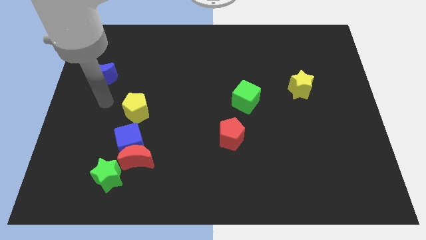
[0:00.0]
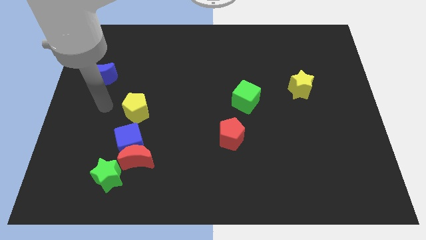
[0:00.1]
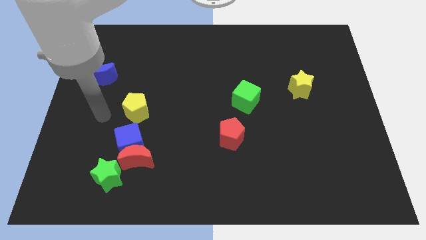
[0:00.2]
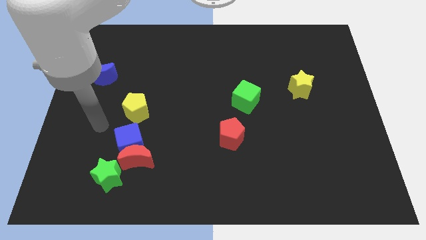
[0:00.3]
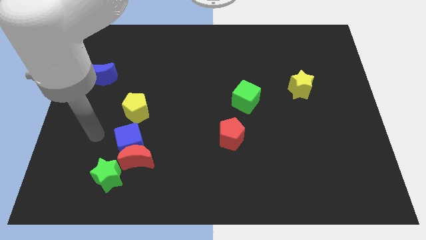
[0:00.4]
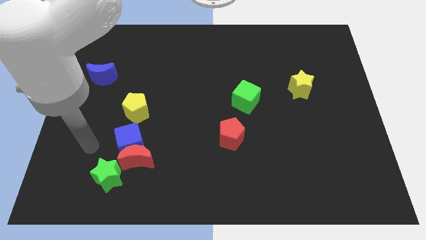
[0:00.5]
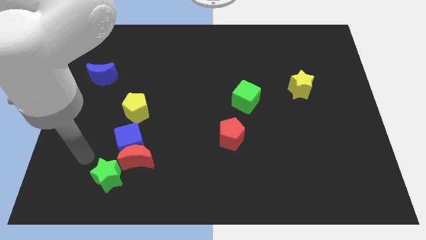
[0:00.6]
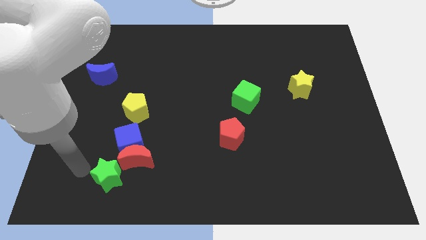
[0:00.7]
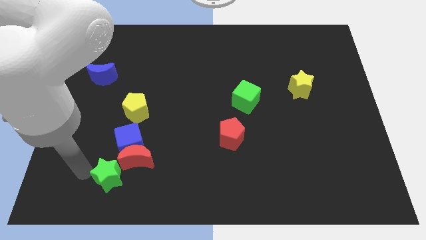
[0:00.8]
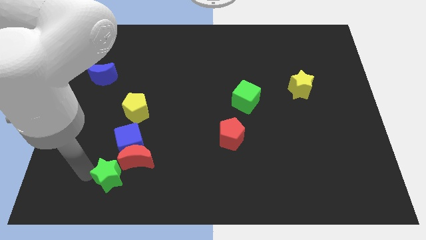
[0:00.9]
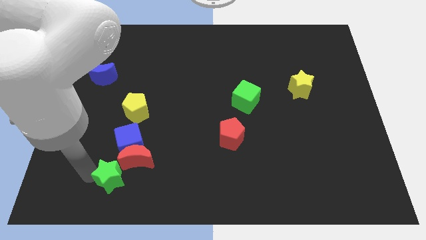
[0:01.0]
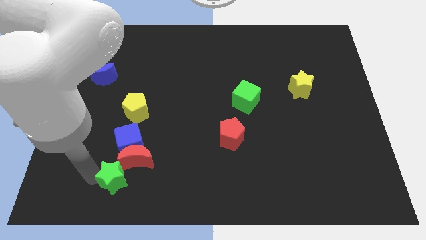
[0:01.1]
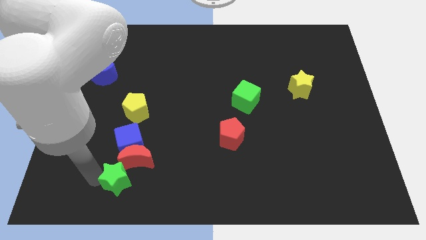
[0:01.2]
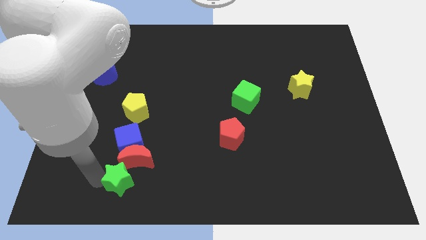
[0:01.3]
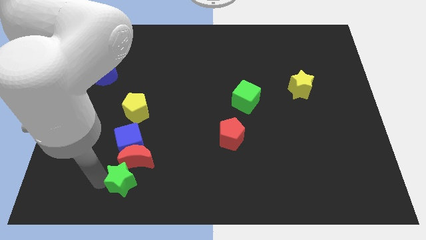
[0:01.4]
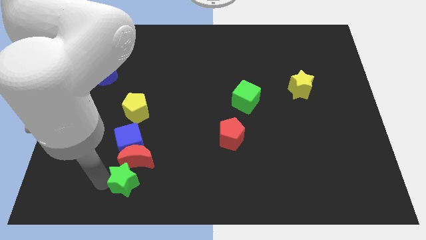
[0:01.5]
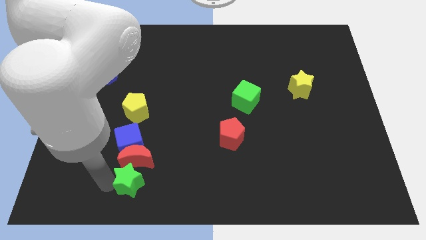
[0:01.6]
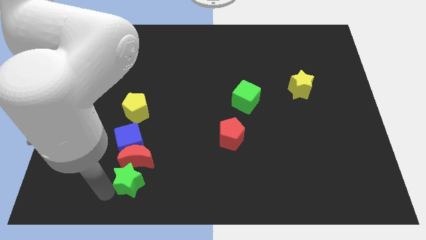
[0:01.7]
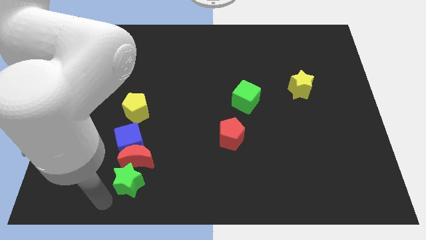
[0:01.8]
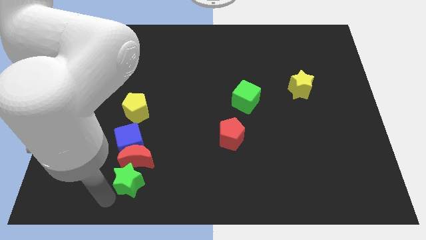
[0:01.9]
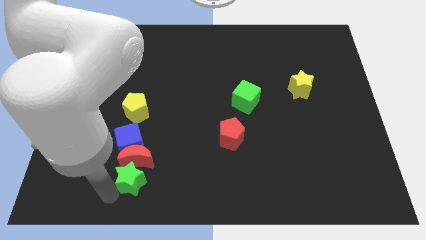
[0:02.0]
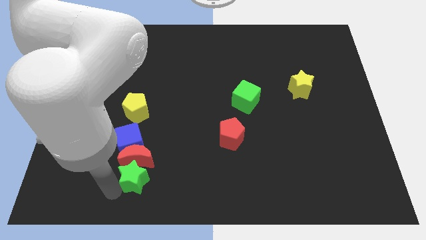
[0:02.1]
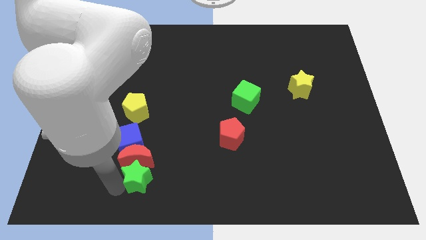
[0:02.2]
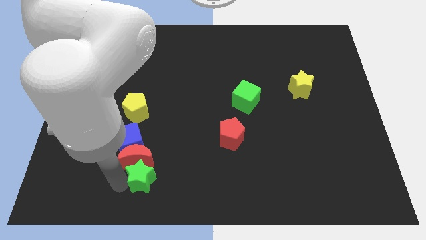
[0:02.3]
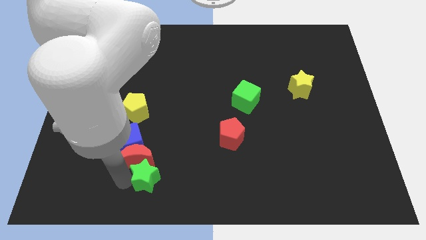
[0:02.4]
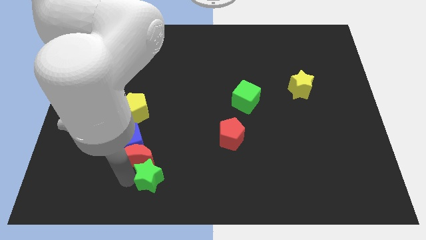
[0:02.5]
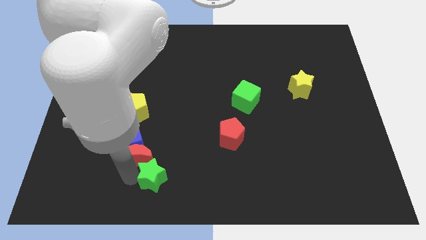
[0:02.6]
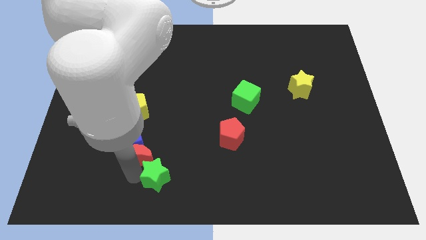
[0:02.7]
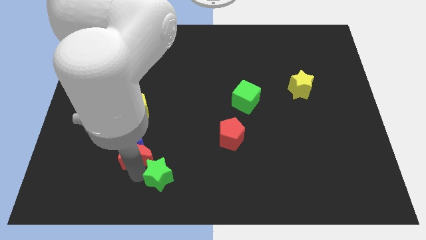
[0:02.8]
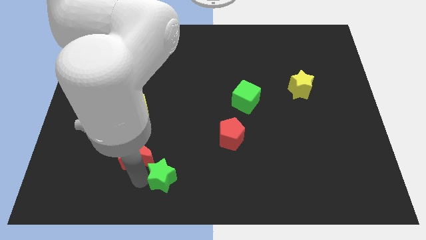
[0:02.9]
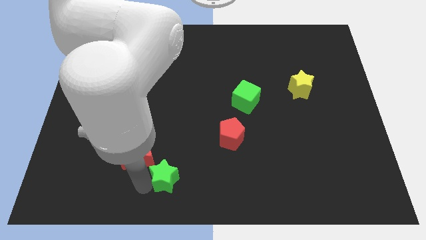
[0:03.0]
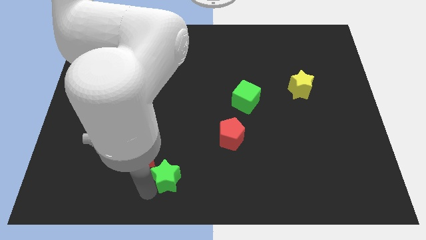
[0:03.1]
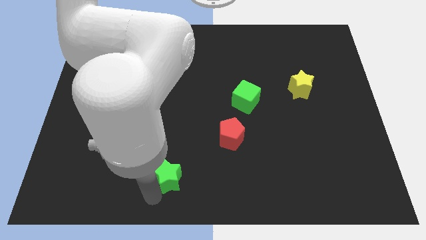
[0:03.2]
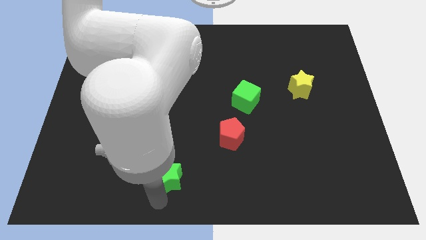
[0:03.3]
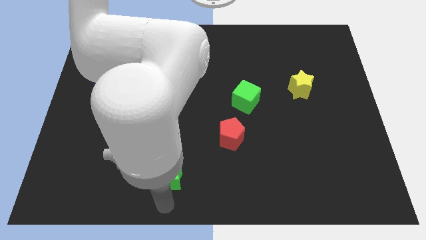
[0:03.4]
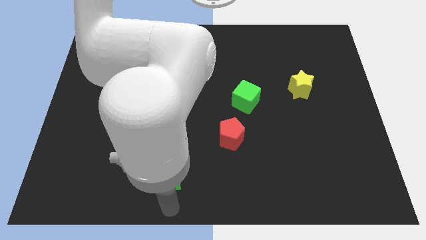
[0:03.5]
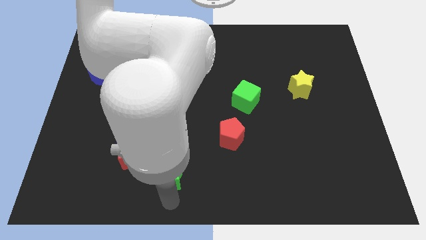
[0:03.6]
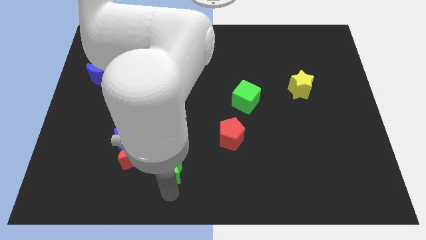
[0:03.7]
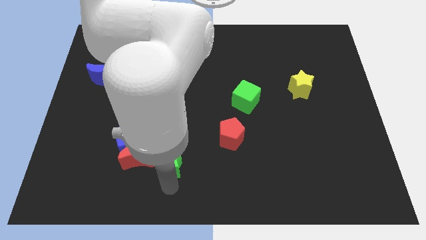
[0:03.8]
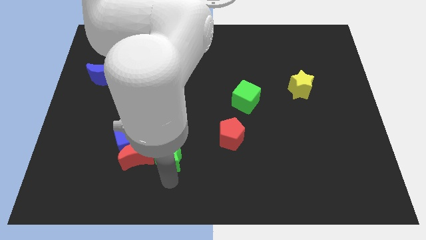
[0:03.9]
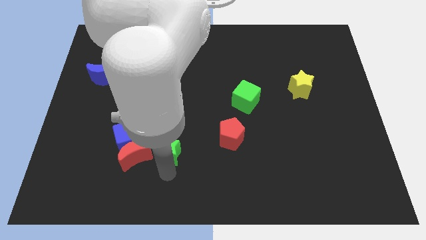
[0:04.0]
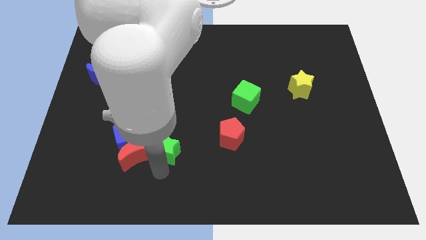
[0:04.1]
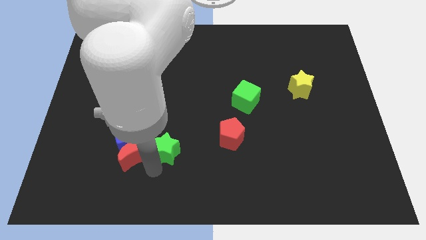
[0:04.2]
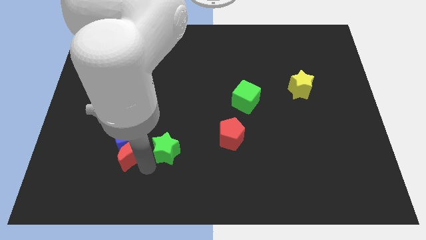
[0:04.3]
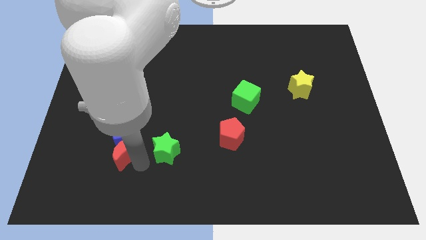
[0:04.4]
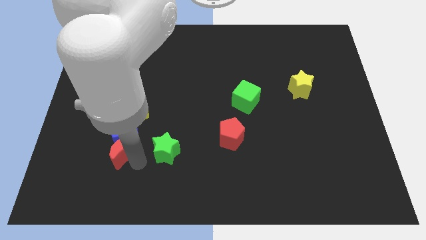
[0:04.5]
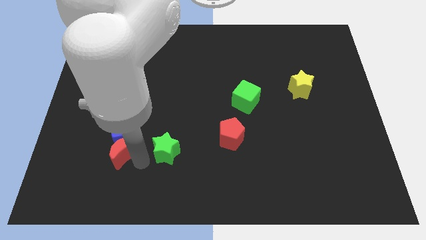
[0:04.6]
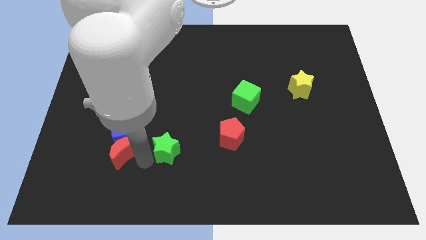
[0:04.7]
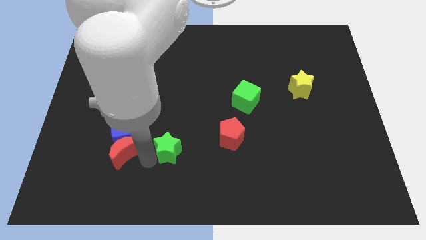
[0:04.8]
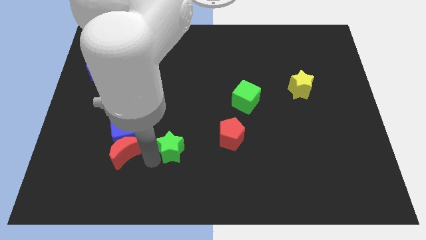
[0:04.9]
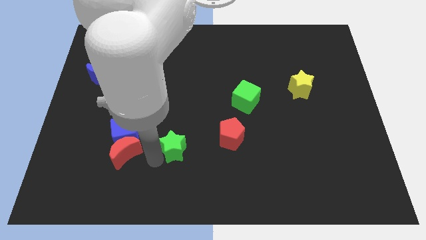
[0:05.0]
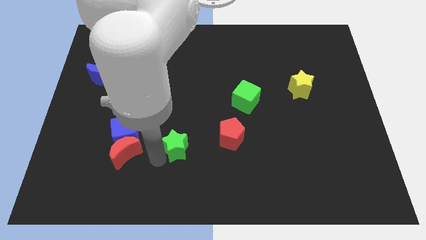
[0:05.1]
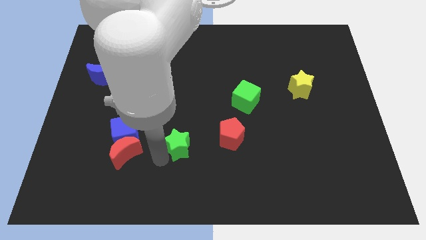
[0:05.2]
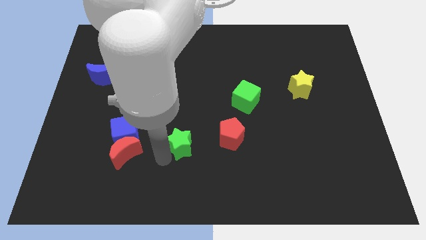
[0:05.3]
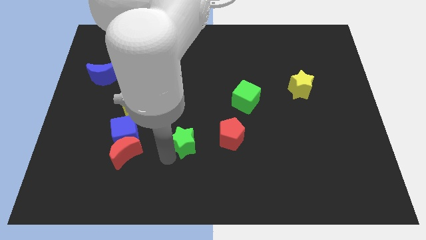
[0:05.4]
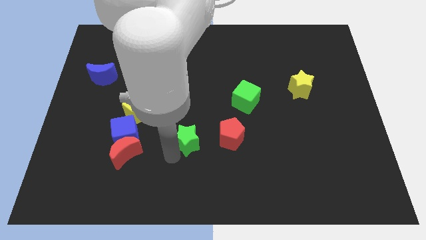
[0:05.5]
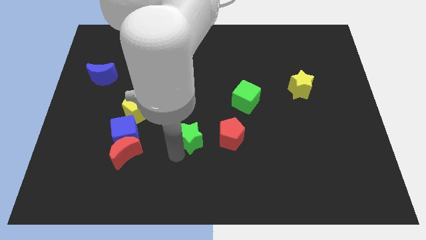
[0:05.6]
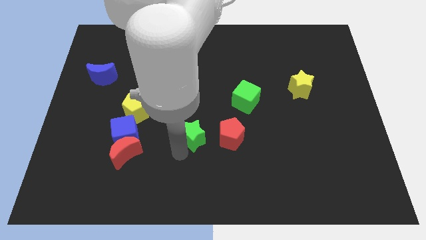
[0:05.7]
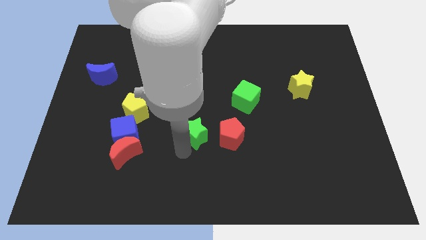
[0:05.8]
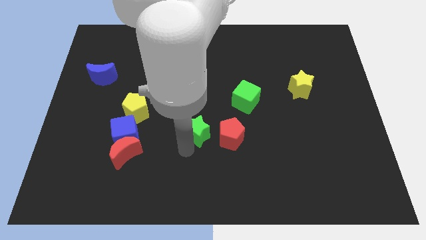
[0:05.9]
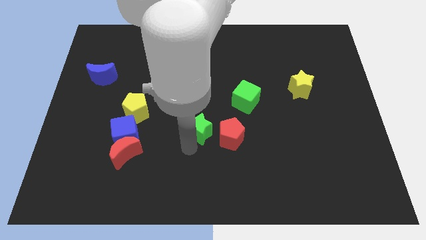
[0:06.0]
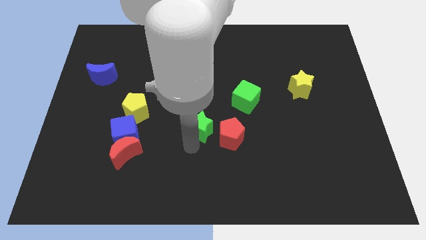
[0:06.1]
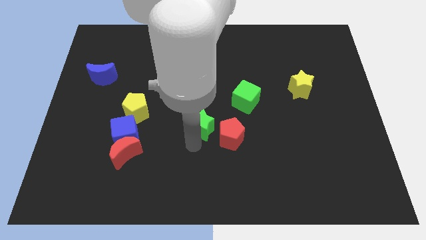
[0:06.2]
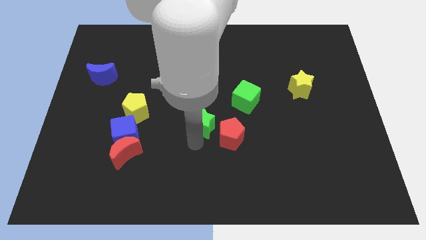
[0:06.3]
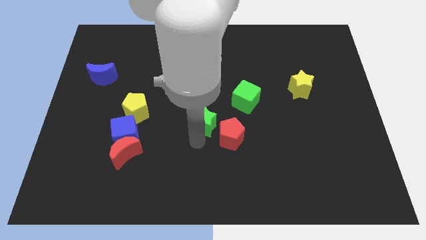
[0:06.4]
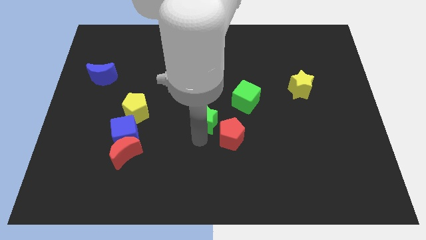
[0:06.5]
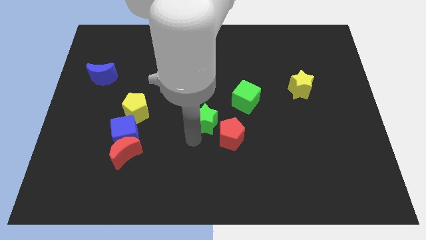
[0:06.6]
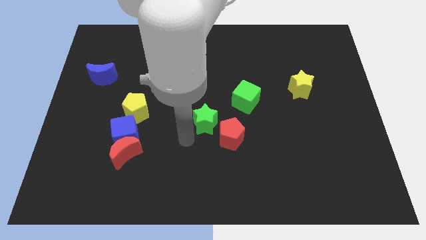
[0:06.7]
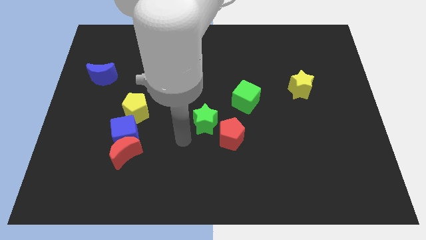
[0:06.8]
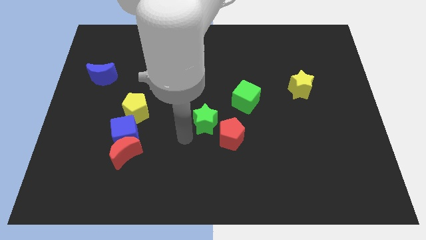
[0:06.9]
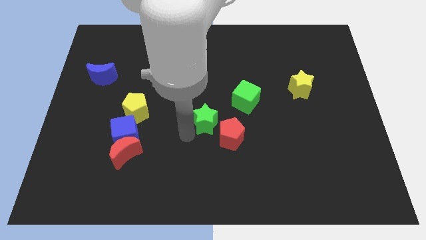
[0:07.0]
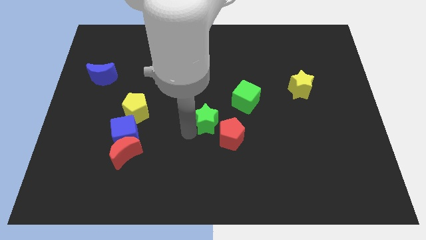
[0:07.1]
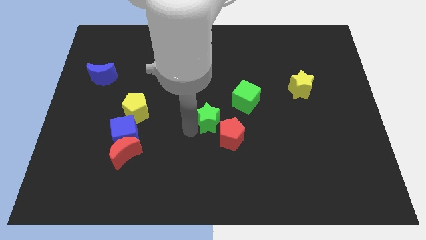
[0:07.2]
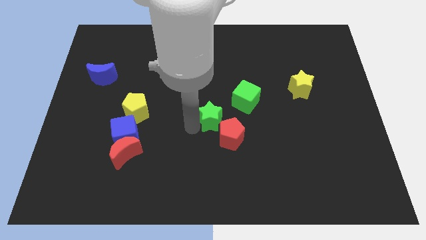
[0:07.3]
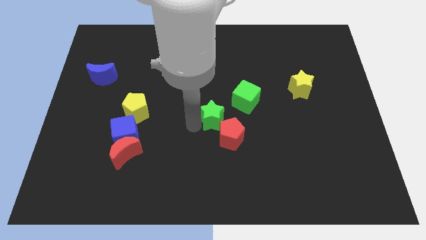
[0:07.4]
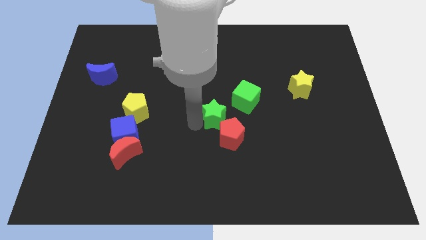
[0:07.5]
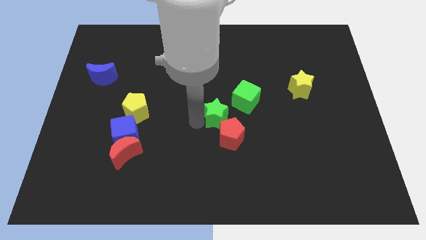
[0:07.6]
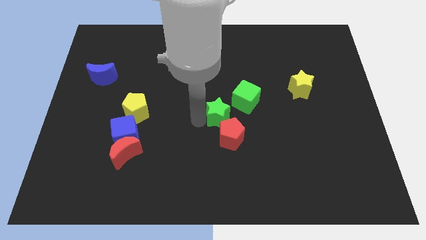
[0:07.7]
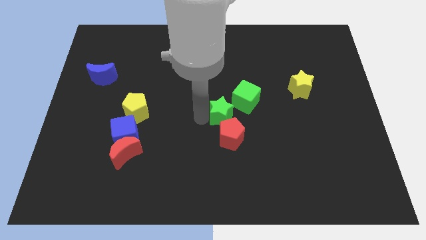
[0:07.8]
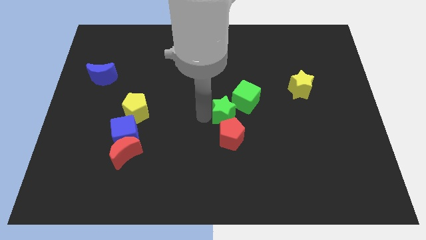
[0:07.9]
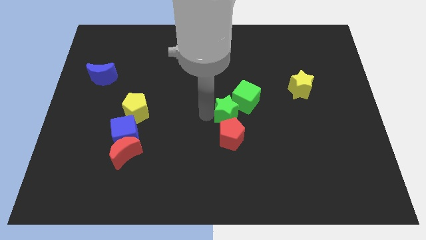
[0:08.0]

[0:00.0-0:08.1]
put the green star to the green cube
